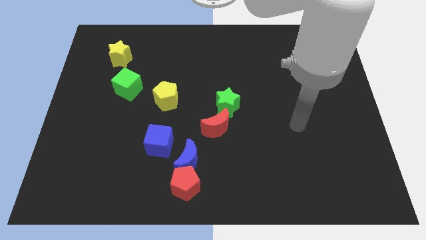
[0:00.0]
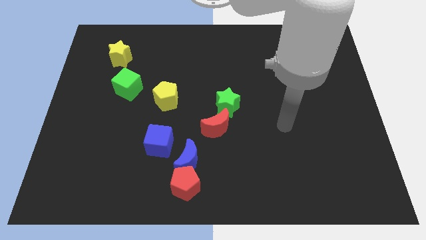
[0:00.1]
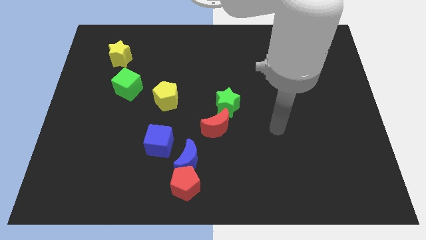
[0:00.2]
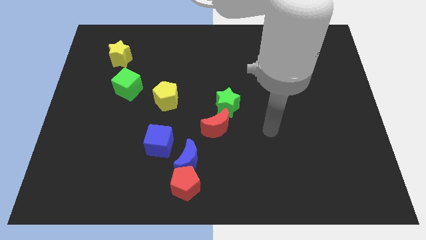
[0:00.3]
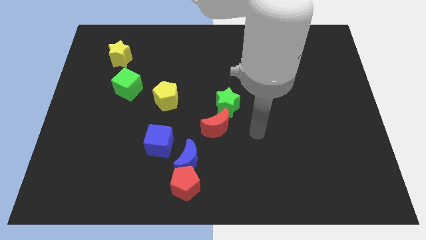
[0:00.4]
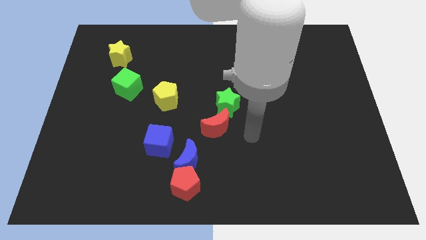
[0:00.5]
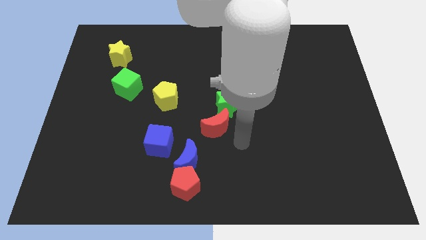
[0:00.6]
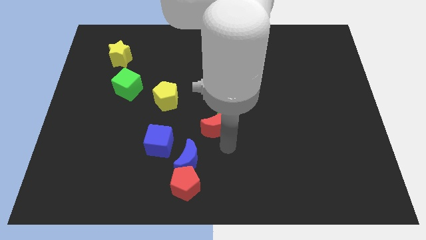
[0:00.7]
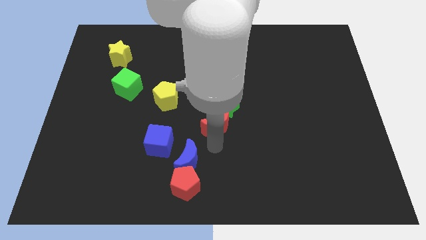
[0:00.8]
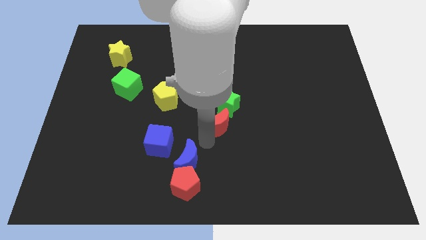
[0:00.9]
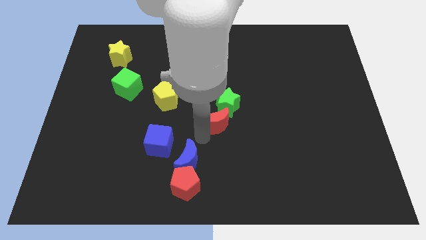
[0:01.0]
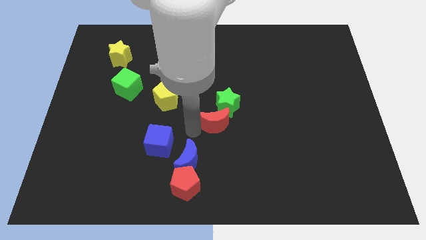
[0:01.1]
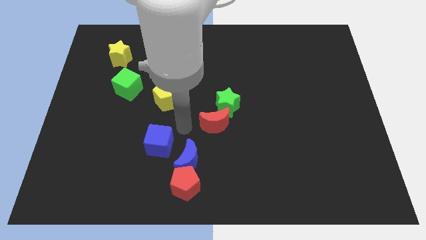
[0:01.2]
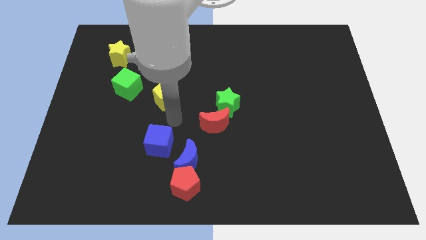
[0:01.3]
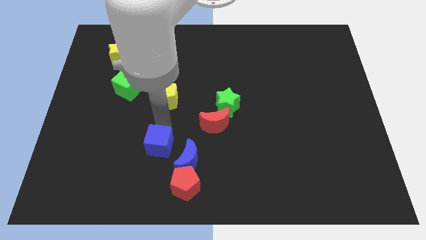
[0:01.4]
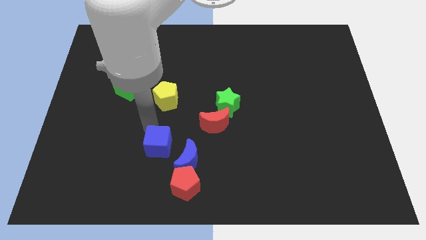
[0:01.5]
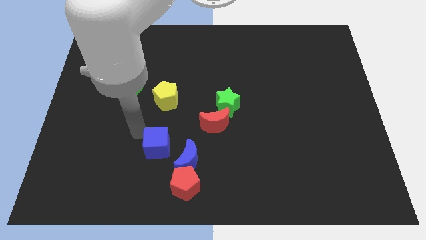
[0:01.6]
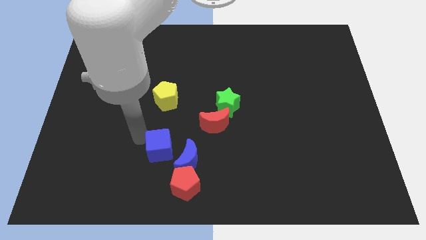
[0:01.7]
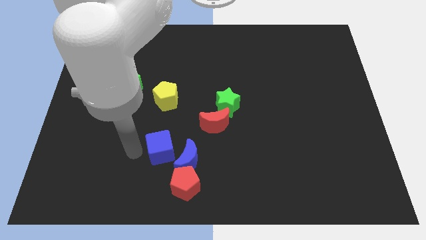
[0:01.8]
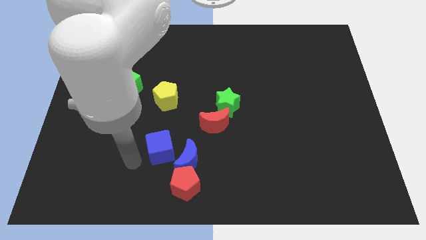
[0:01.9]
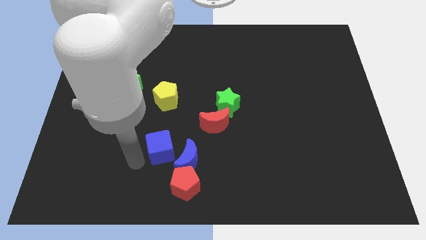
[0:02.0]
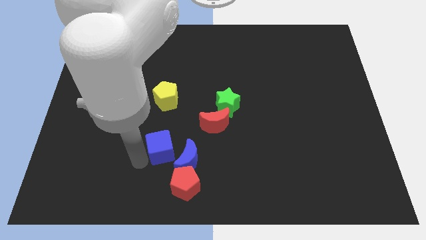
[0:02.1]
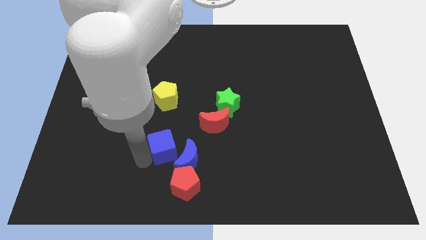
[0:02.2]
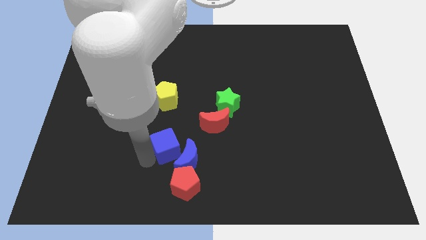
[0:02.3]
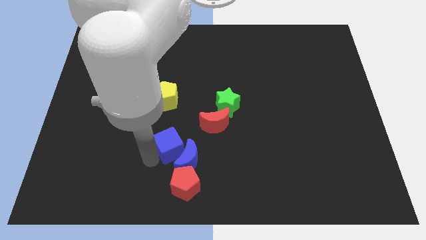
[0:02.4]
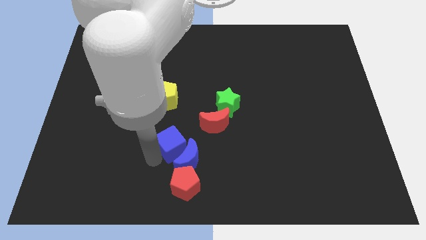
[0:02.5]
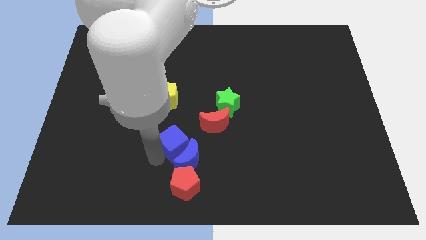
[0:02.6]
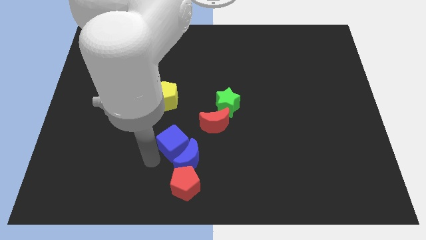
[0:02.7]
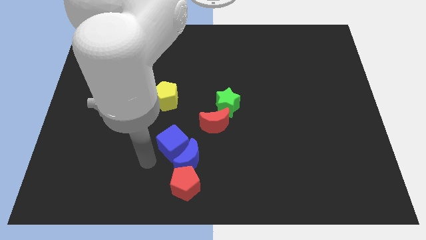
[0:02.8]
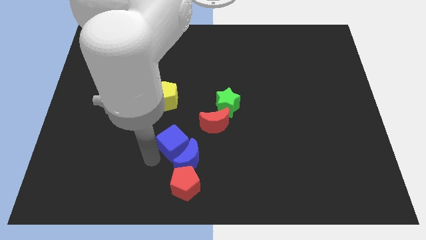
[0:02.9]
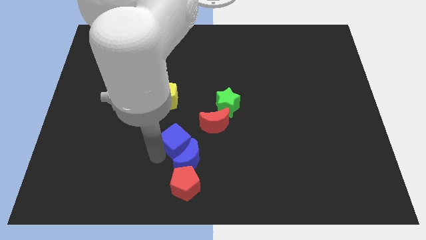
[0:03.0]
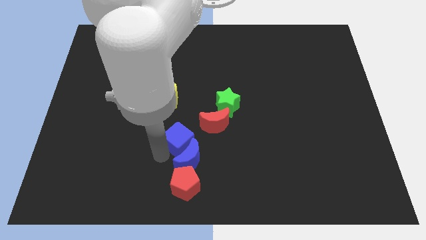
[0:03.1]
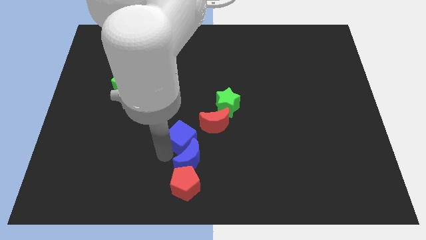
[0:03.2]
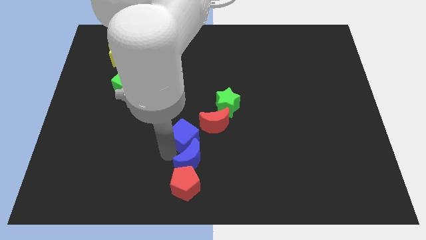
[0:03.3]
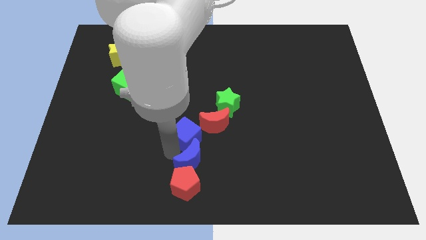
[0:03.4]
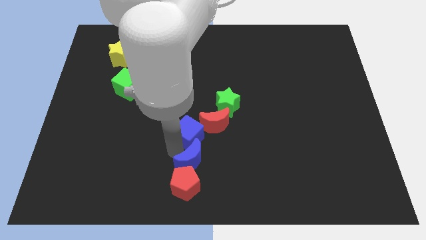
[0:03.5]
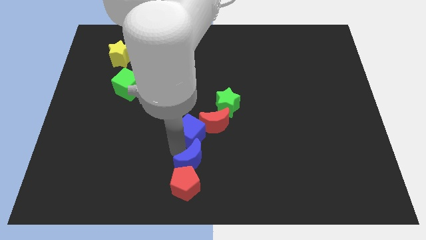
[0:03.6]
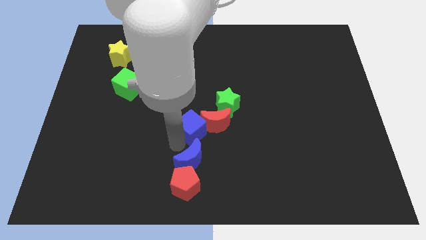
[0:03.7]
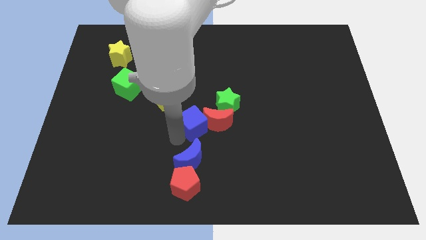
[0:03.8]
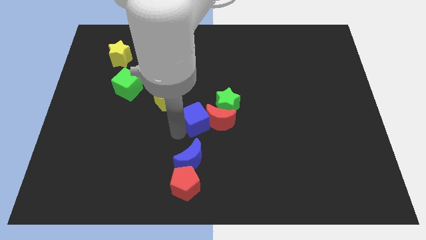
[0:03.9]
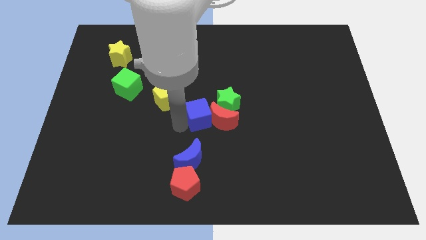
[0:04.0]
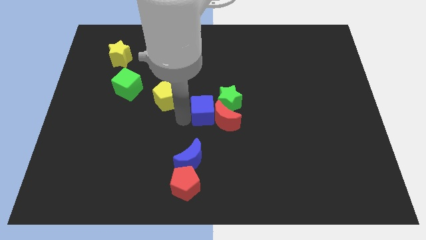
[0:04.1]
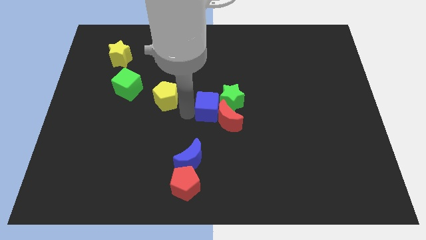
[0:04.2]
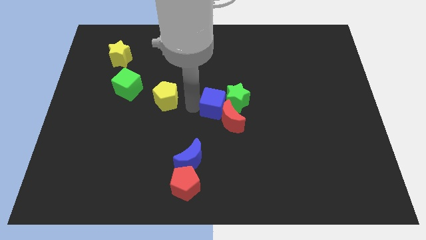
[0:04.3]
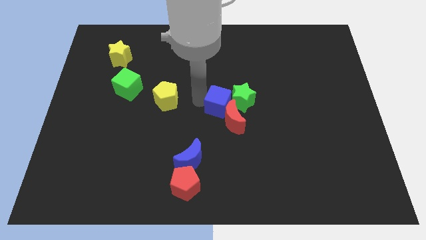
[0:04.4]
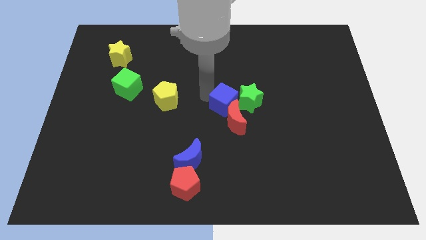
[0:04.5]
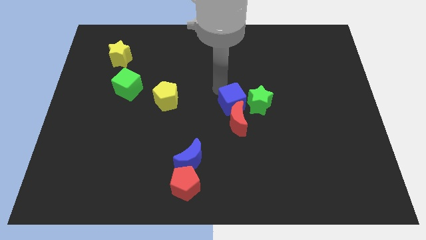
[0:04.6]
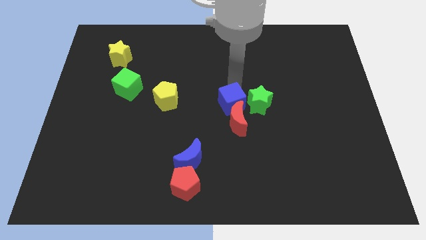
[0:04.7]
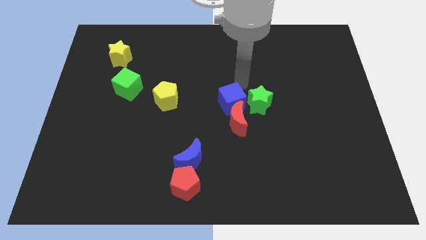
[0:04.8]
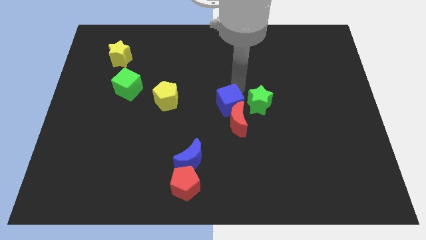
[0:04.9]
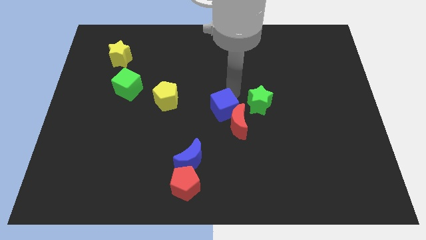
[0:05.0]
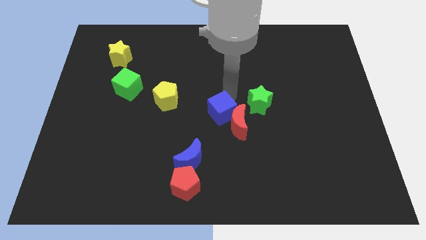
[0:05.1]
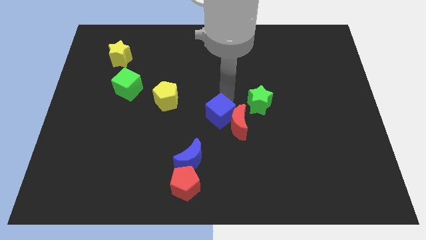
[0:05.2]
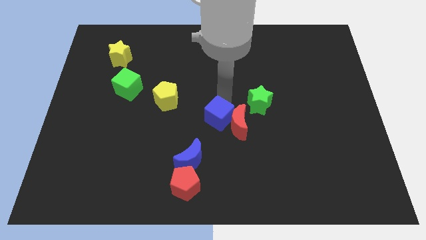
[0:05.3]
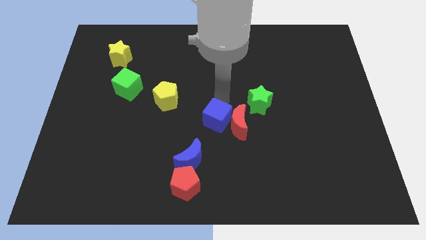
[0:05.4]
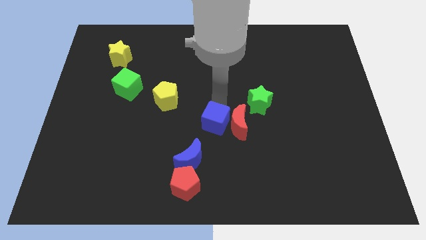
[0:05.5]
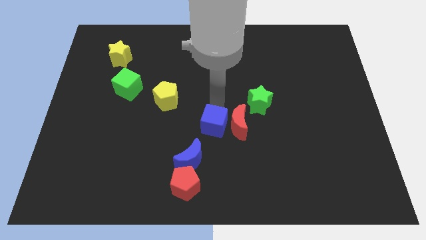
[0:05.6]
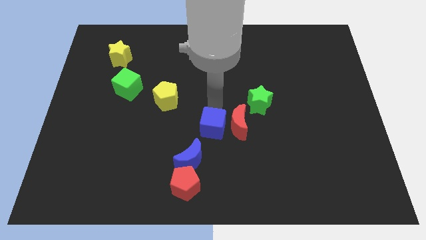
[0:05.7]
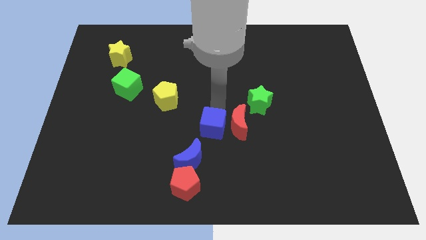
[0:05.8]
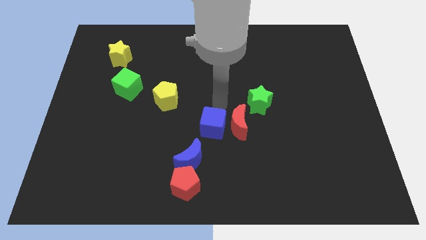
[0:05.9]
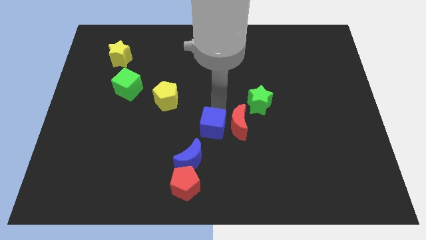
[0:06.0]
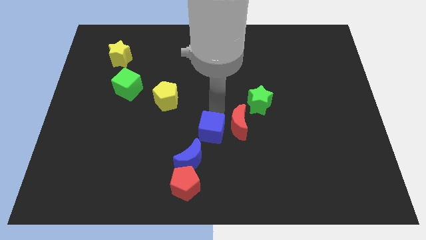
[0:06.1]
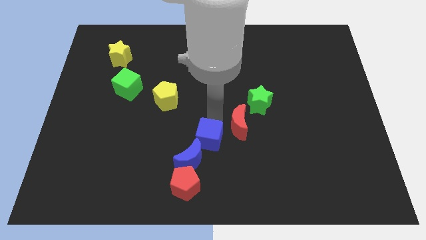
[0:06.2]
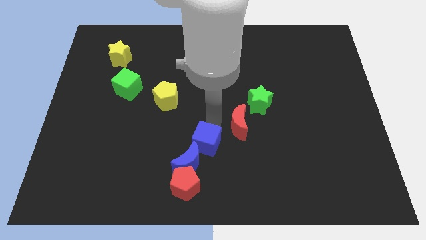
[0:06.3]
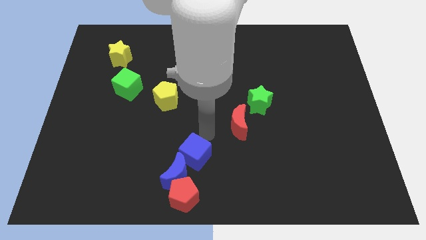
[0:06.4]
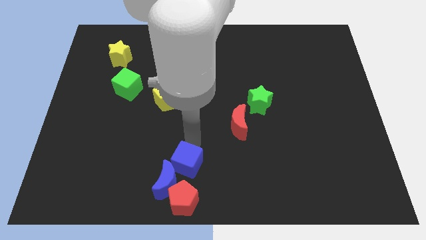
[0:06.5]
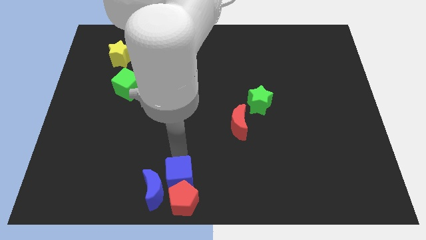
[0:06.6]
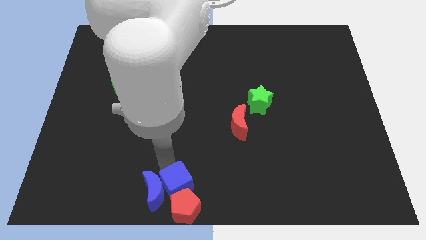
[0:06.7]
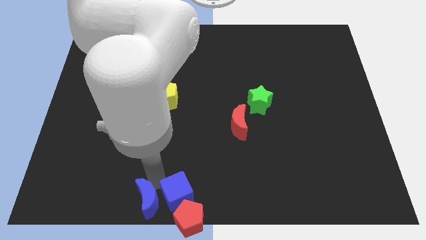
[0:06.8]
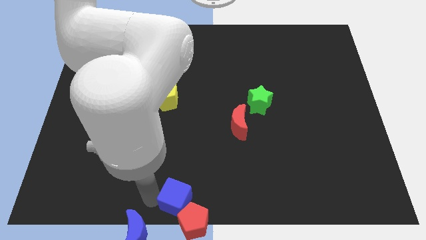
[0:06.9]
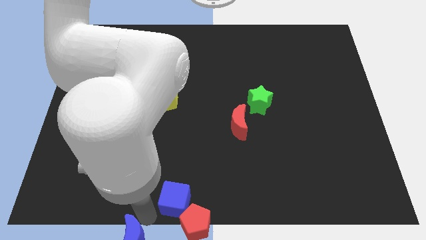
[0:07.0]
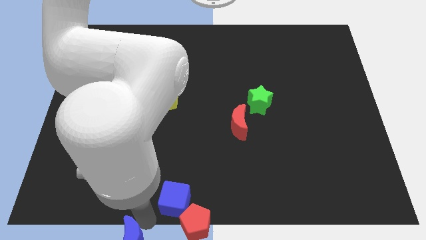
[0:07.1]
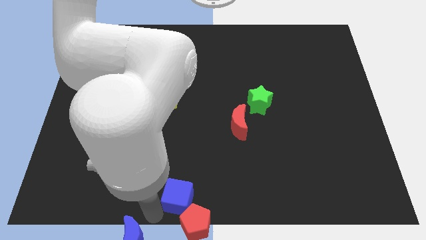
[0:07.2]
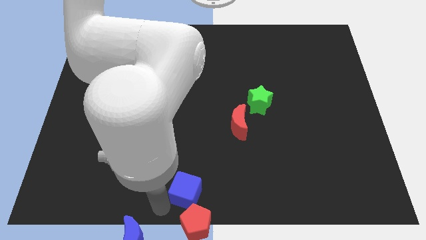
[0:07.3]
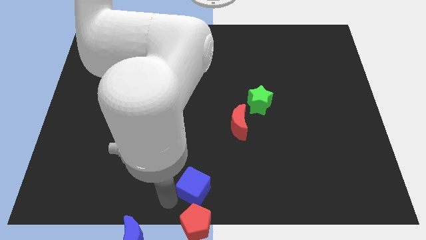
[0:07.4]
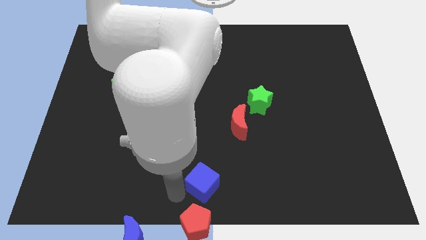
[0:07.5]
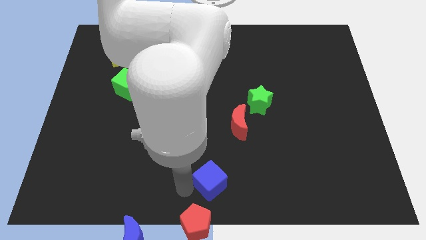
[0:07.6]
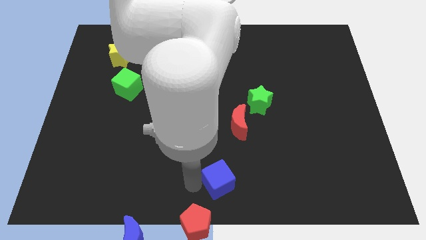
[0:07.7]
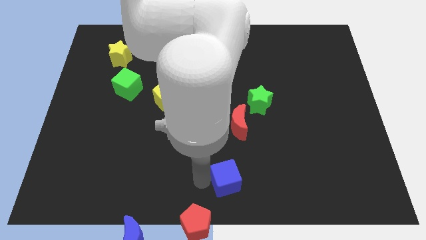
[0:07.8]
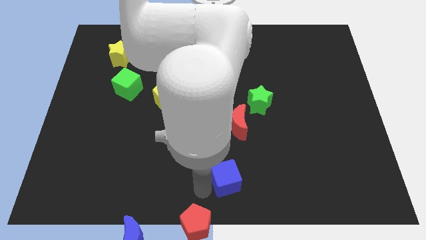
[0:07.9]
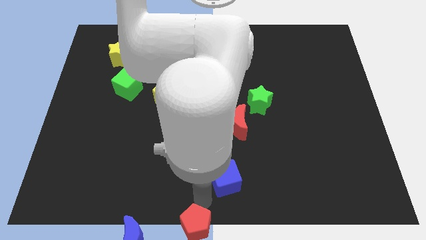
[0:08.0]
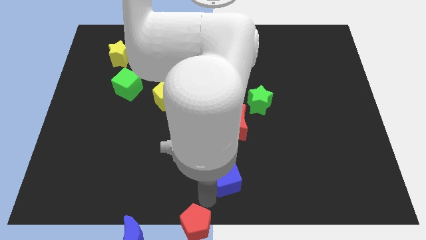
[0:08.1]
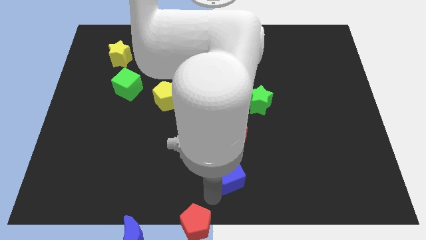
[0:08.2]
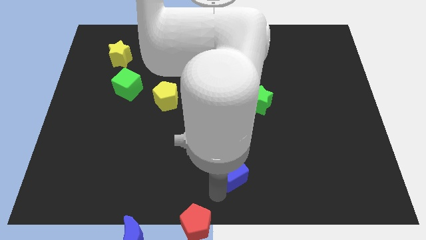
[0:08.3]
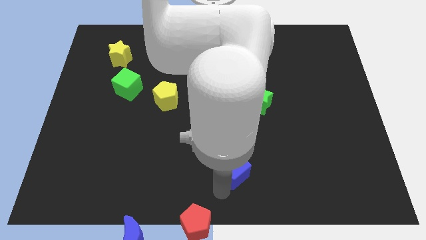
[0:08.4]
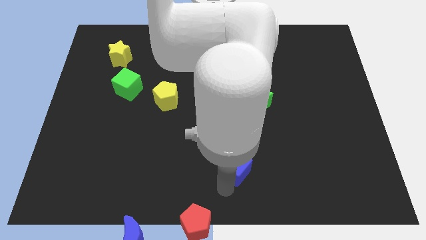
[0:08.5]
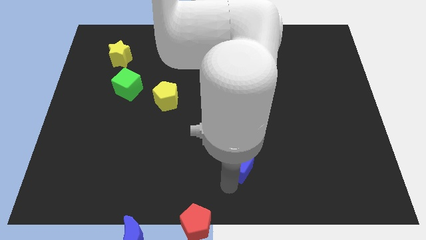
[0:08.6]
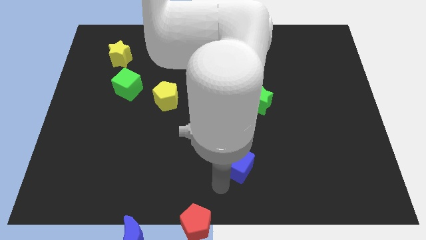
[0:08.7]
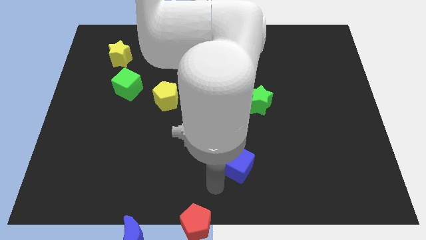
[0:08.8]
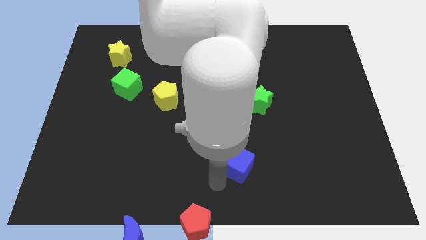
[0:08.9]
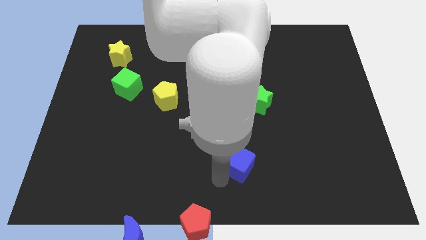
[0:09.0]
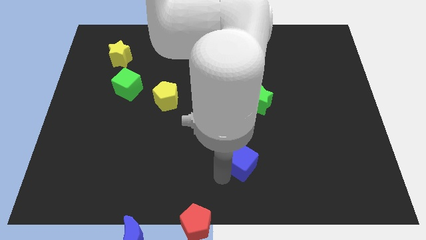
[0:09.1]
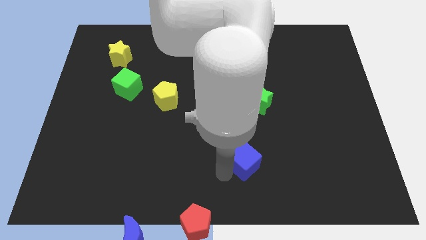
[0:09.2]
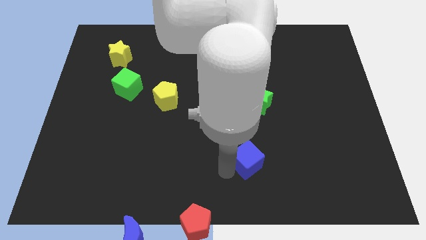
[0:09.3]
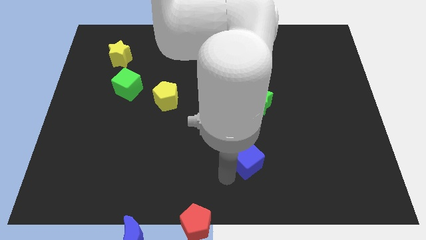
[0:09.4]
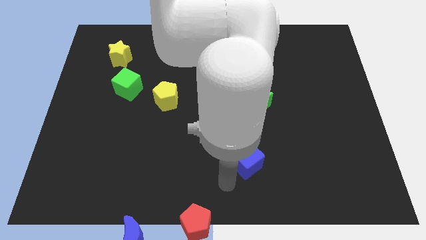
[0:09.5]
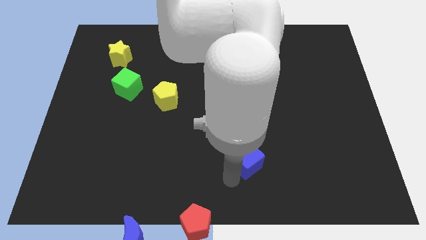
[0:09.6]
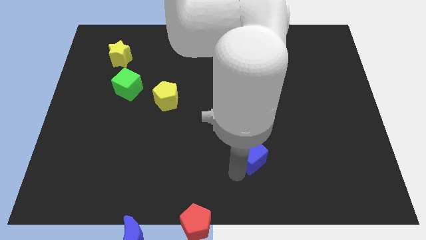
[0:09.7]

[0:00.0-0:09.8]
slide the blue cube to the bottom right of the red moon
